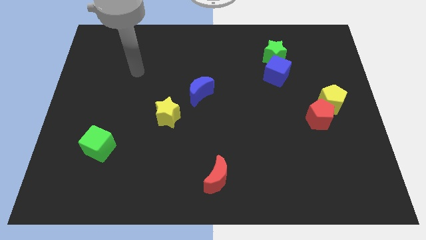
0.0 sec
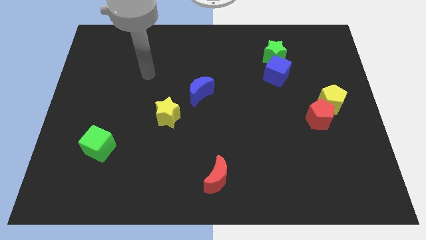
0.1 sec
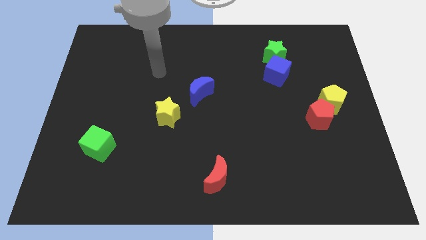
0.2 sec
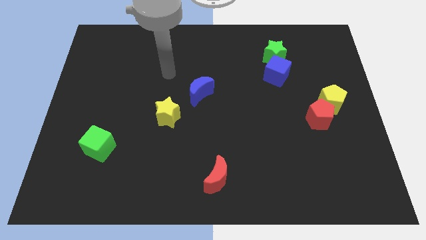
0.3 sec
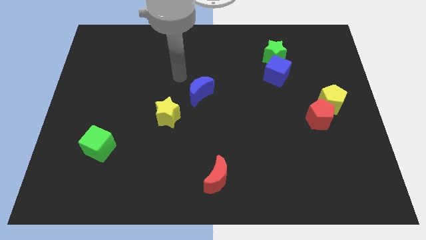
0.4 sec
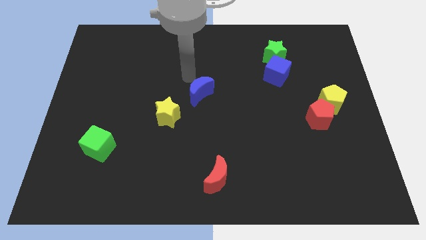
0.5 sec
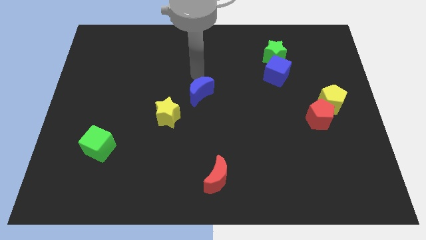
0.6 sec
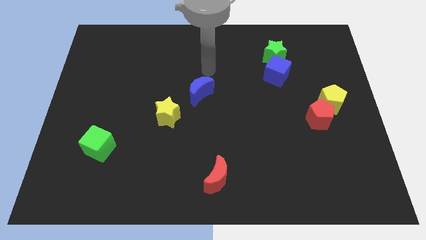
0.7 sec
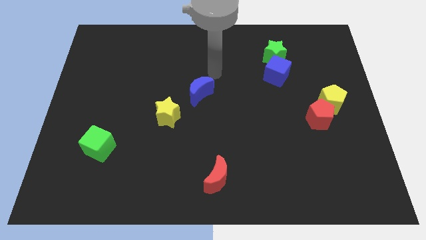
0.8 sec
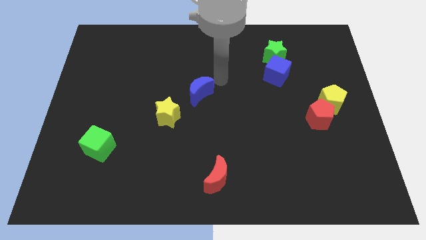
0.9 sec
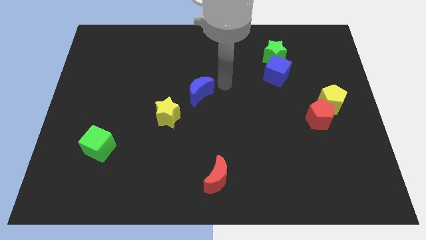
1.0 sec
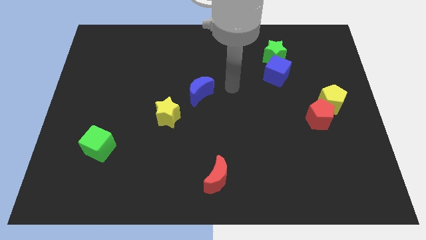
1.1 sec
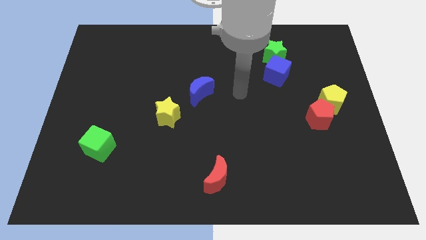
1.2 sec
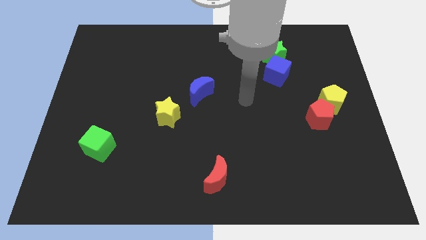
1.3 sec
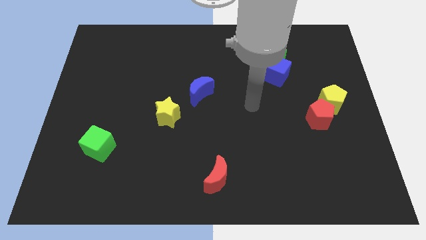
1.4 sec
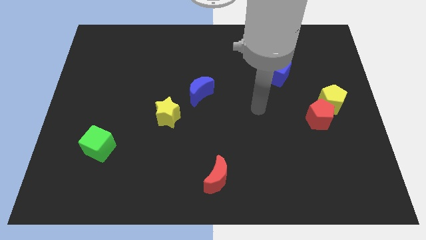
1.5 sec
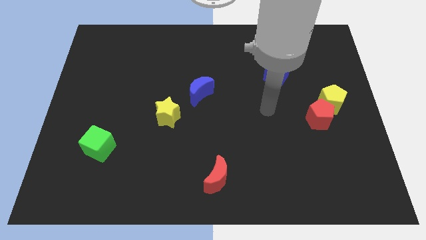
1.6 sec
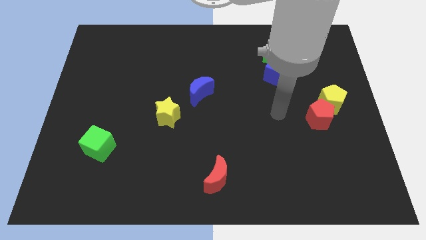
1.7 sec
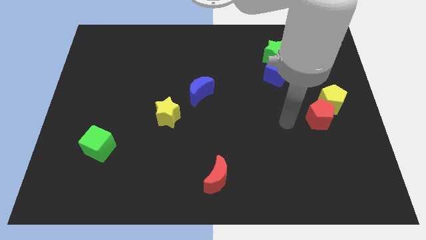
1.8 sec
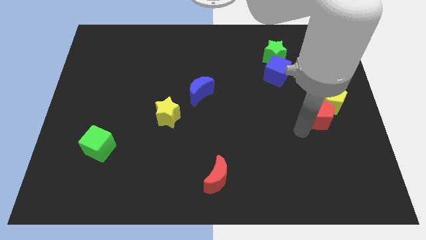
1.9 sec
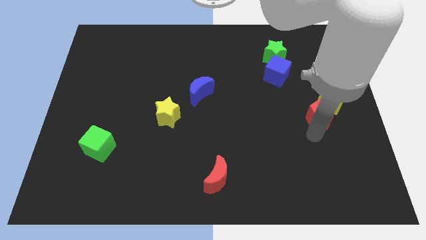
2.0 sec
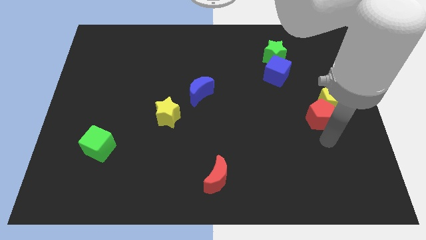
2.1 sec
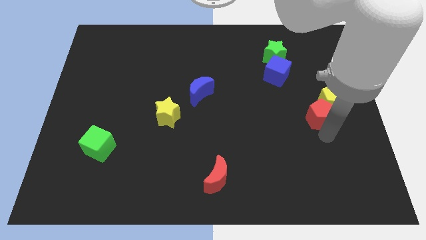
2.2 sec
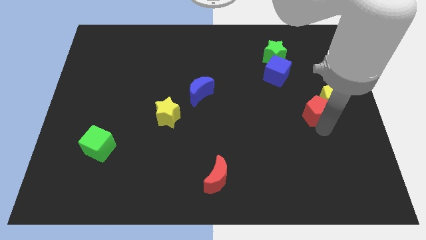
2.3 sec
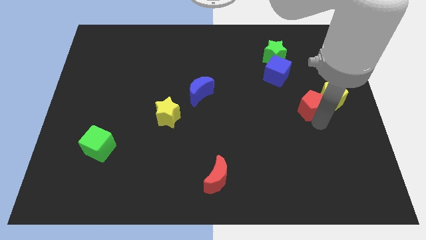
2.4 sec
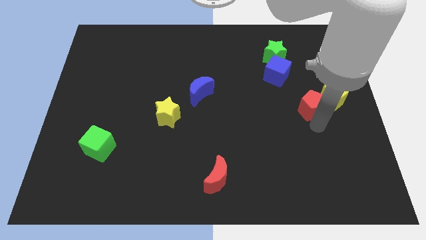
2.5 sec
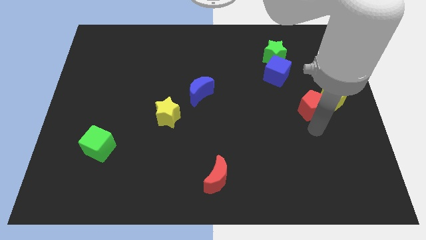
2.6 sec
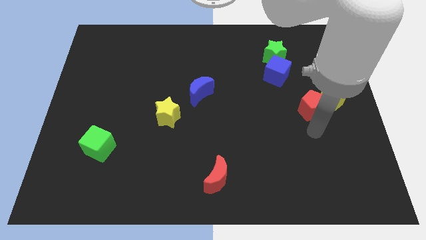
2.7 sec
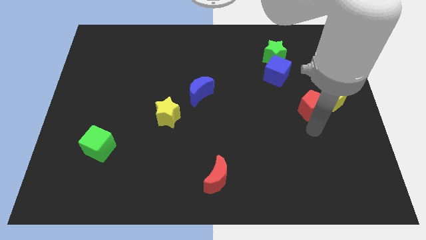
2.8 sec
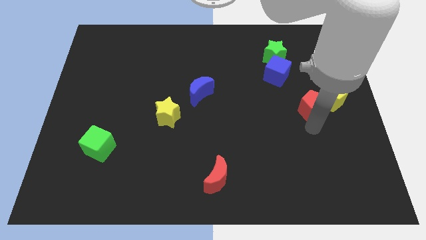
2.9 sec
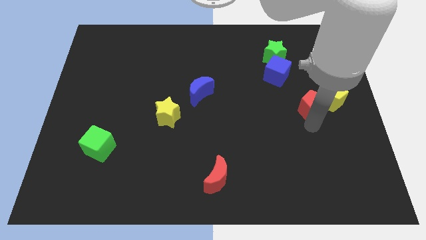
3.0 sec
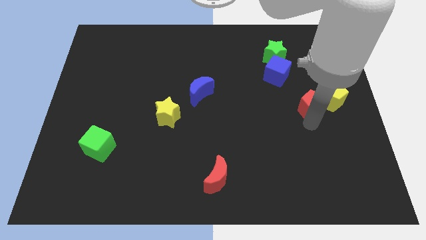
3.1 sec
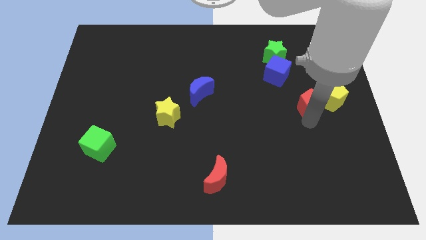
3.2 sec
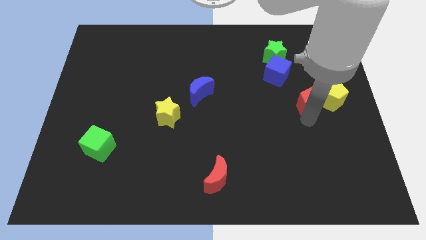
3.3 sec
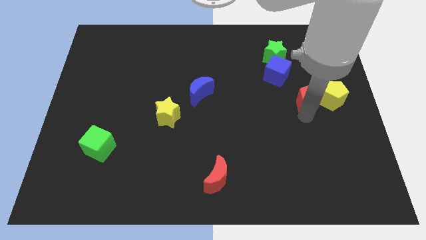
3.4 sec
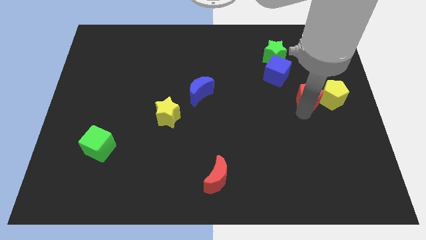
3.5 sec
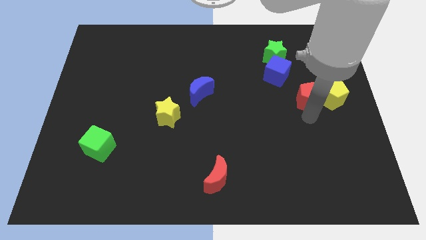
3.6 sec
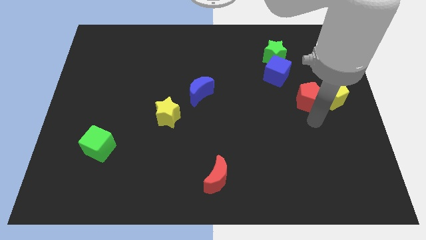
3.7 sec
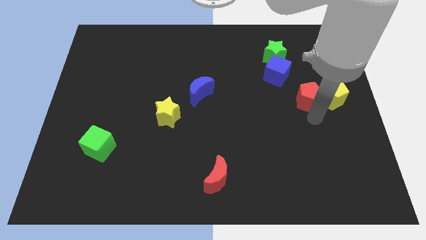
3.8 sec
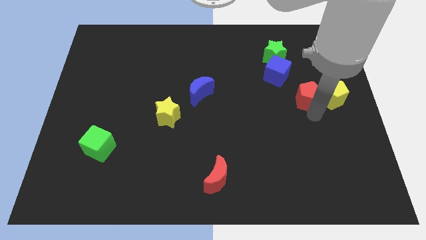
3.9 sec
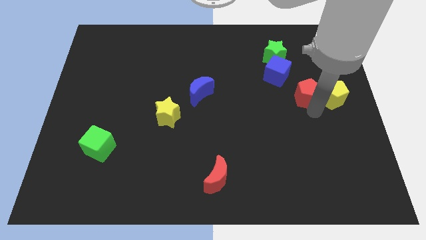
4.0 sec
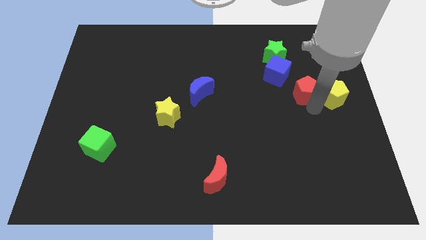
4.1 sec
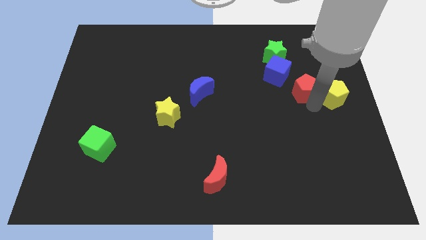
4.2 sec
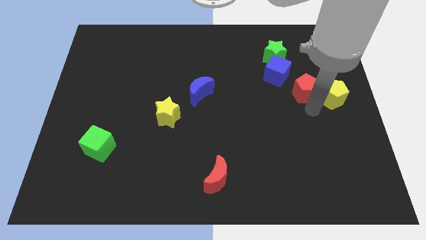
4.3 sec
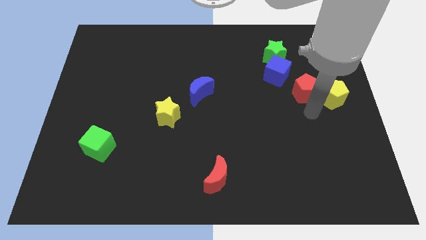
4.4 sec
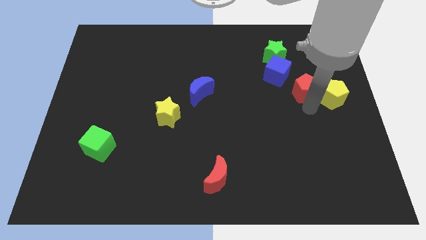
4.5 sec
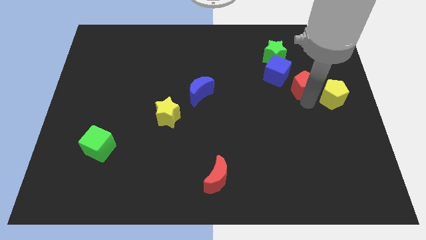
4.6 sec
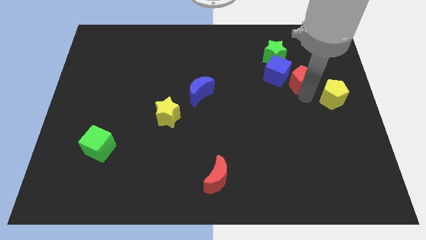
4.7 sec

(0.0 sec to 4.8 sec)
put the red pentagon to the bottom right side of the green star

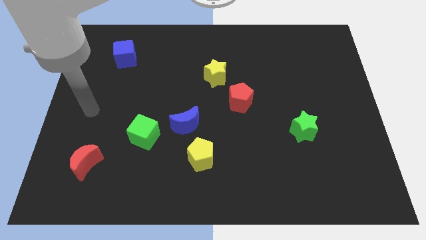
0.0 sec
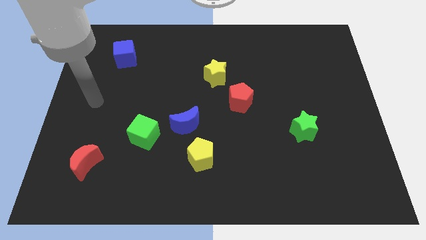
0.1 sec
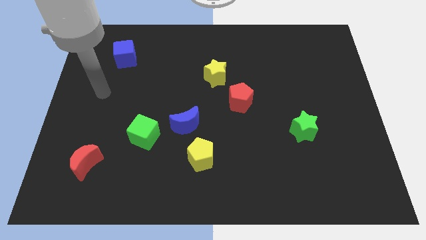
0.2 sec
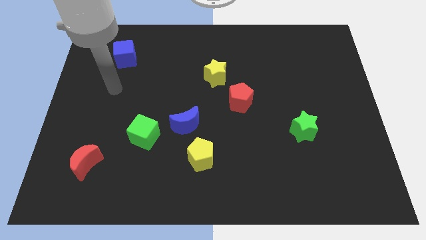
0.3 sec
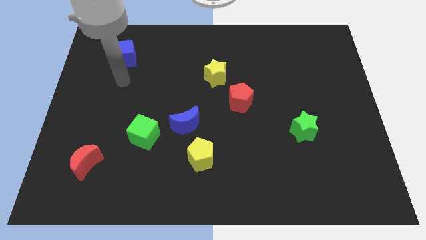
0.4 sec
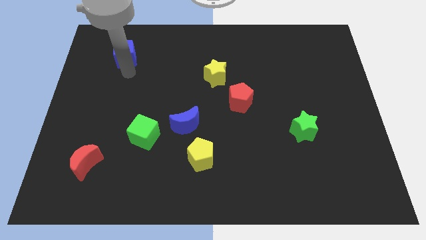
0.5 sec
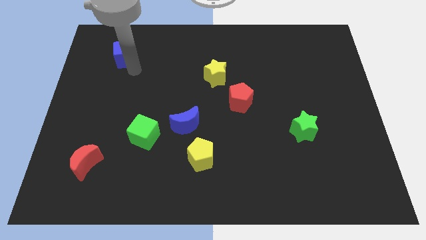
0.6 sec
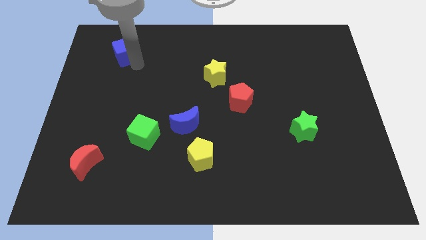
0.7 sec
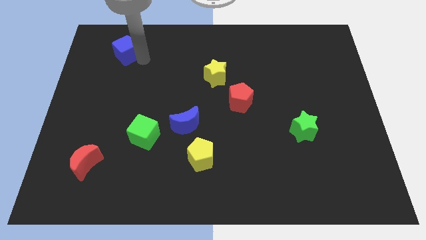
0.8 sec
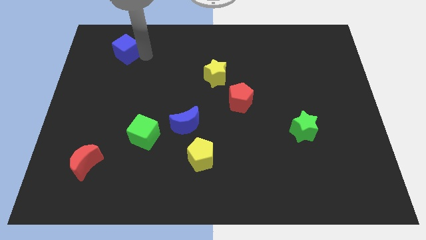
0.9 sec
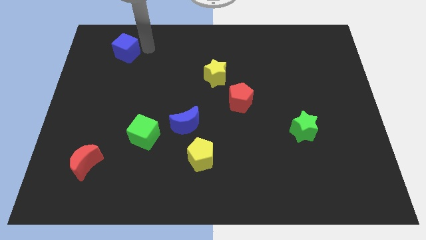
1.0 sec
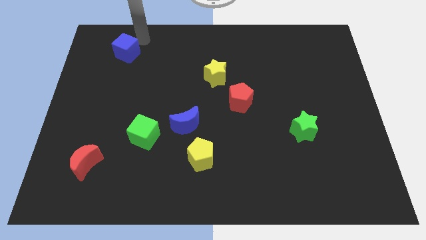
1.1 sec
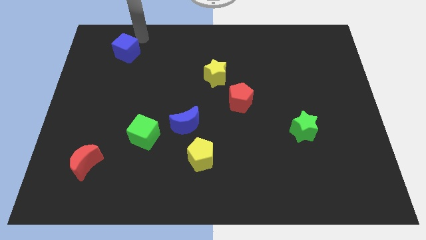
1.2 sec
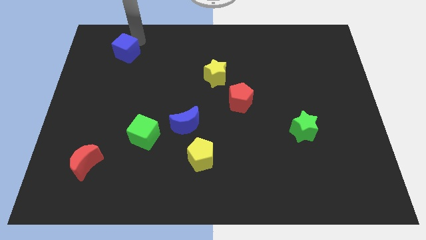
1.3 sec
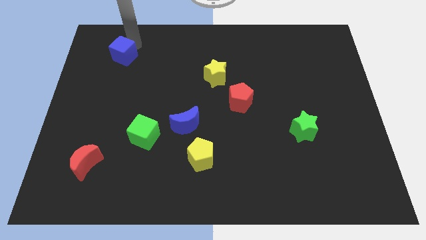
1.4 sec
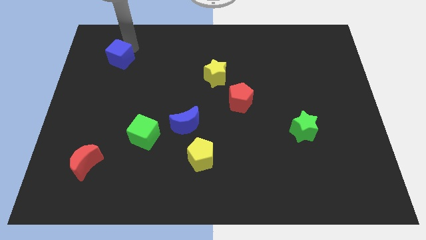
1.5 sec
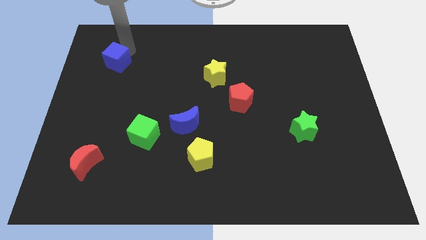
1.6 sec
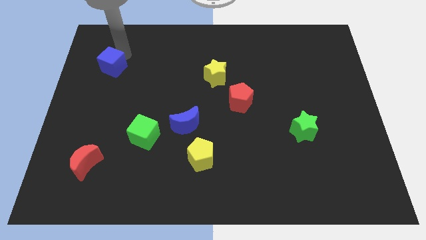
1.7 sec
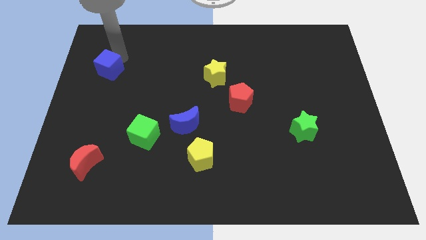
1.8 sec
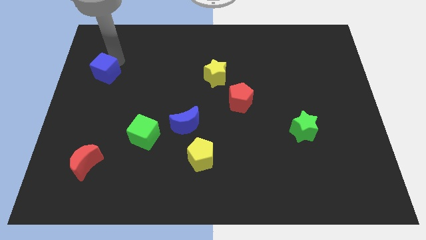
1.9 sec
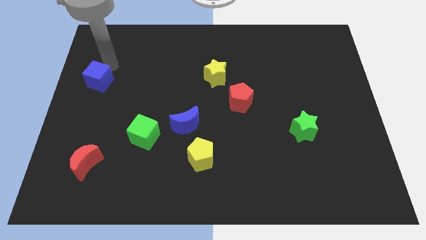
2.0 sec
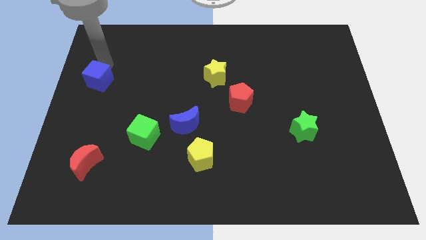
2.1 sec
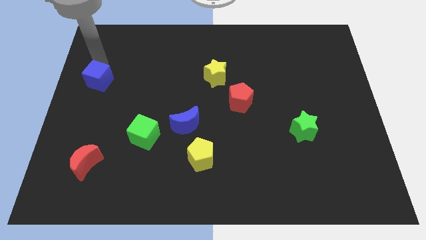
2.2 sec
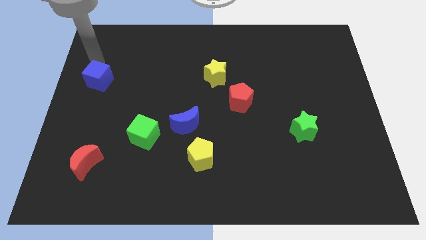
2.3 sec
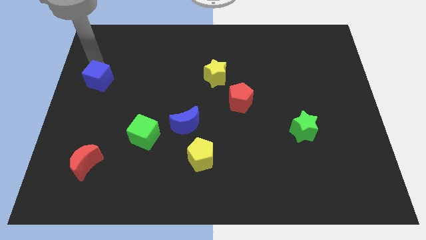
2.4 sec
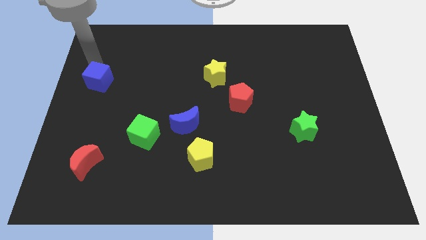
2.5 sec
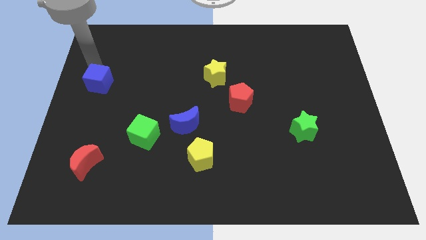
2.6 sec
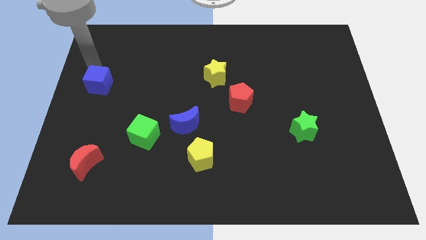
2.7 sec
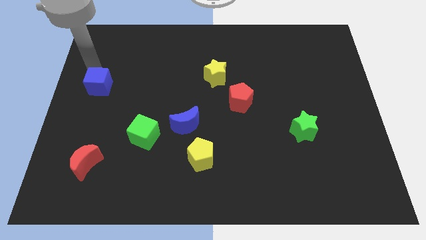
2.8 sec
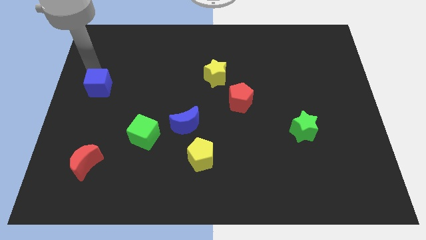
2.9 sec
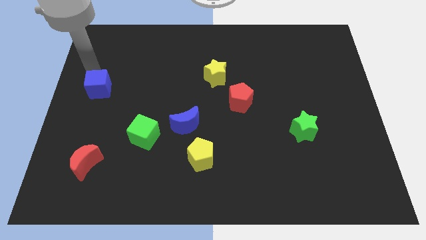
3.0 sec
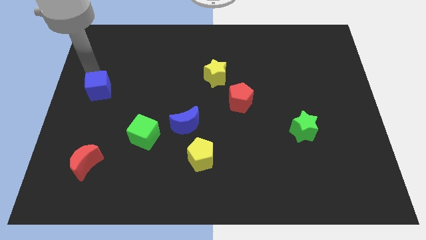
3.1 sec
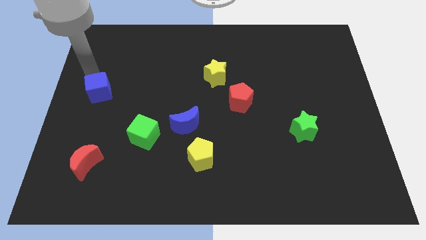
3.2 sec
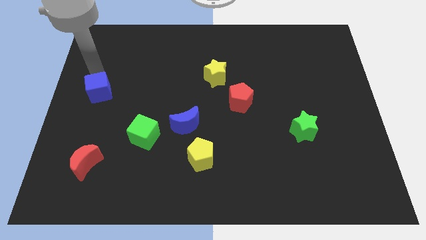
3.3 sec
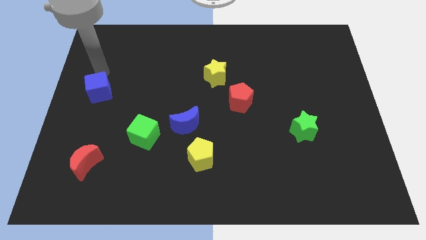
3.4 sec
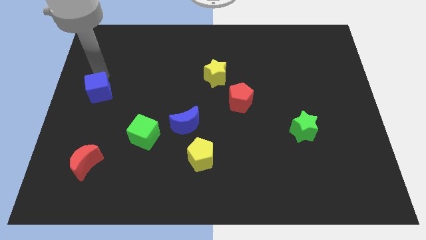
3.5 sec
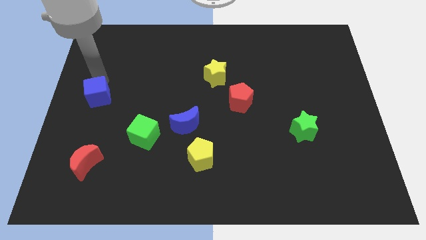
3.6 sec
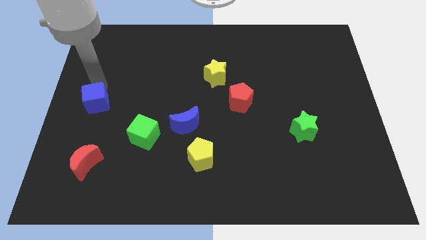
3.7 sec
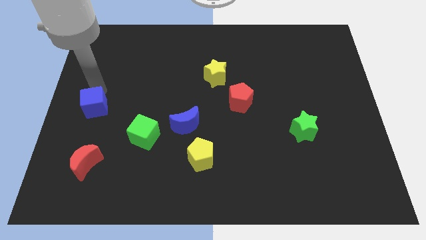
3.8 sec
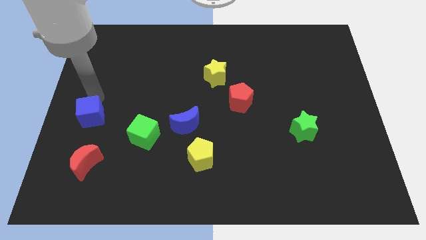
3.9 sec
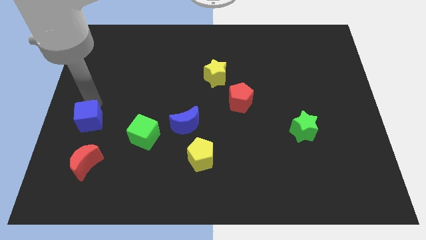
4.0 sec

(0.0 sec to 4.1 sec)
move the blue cube left of the green cube
